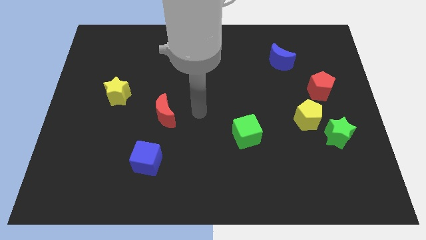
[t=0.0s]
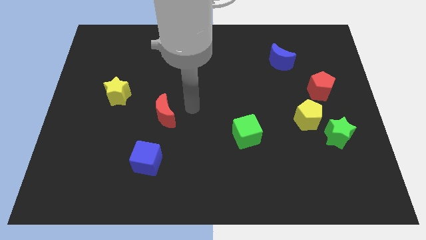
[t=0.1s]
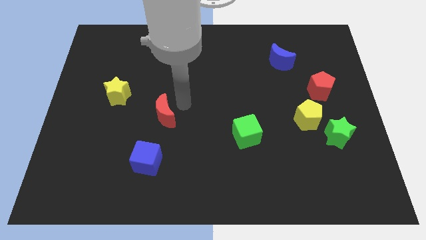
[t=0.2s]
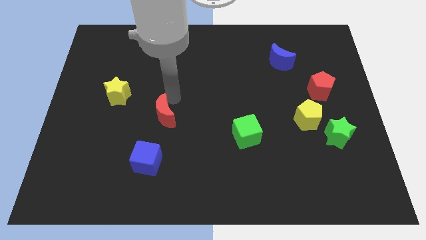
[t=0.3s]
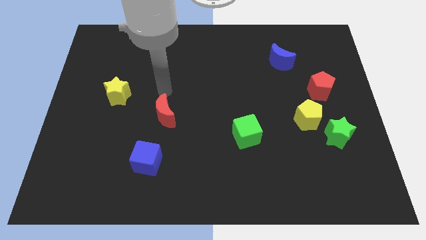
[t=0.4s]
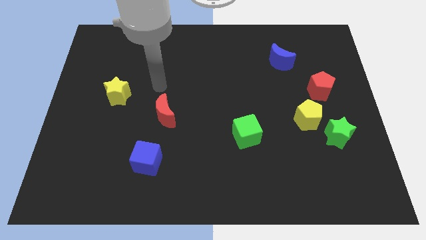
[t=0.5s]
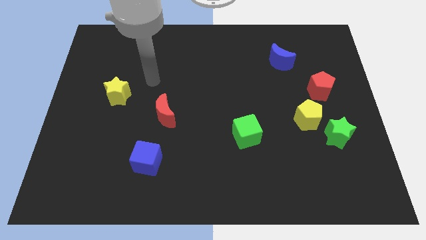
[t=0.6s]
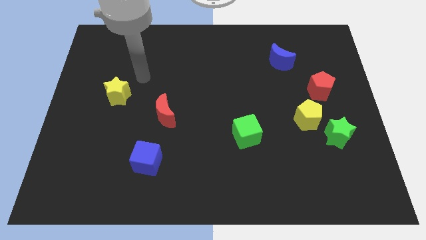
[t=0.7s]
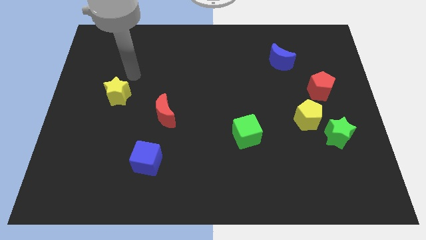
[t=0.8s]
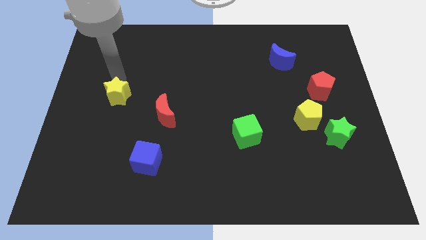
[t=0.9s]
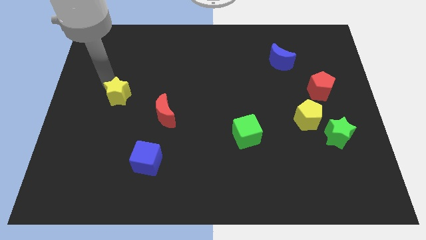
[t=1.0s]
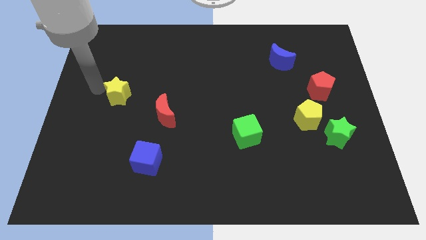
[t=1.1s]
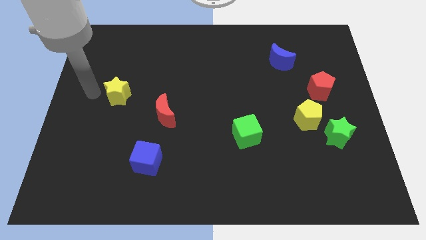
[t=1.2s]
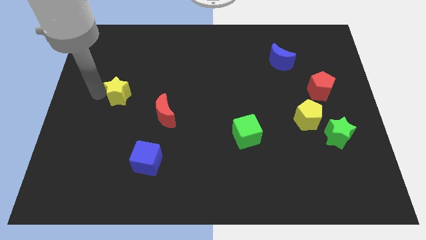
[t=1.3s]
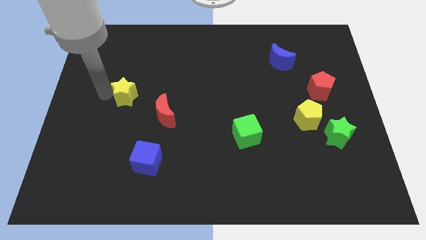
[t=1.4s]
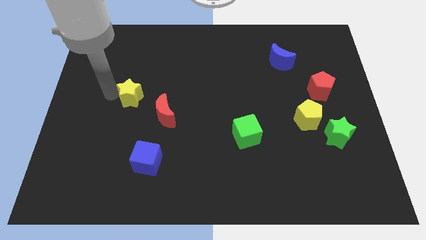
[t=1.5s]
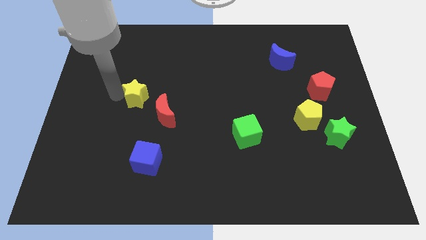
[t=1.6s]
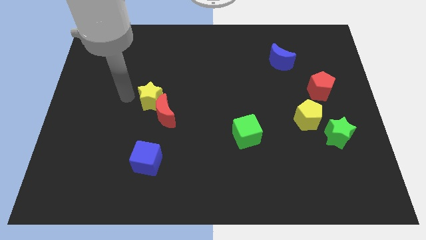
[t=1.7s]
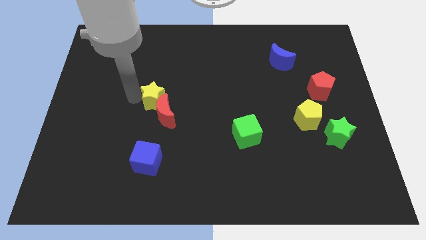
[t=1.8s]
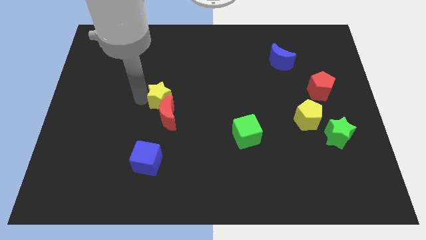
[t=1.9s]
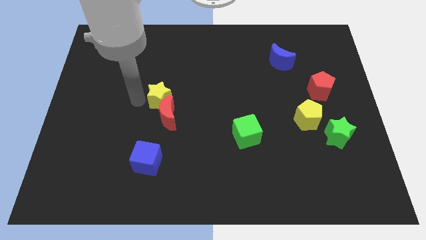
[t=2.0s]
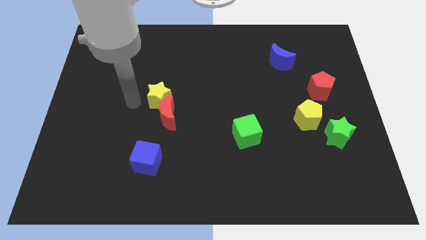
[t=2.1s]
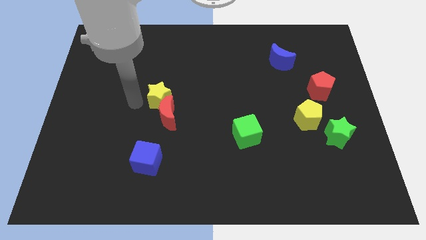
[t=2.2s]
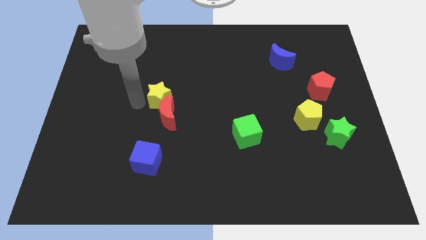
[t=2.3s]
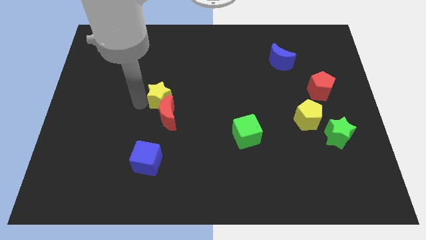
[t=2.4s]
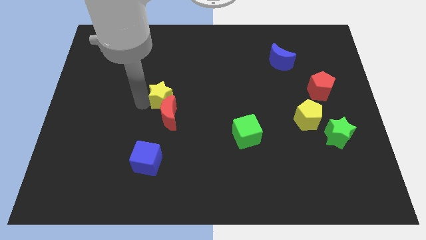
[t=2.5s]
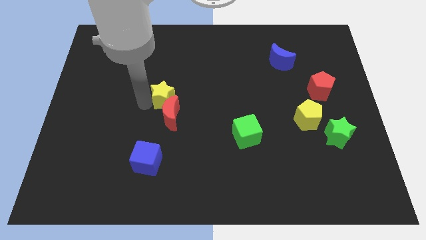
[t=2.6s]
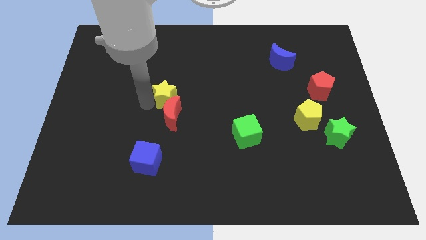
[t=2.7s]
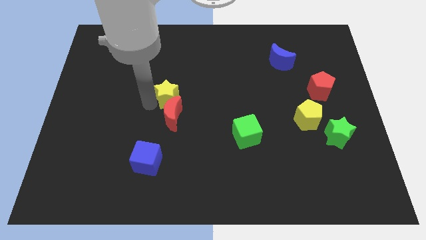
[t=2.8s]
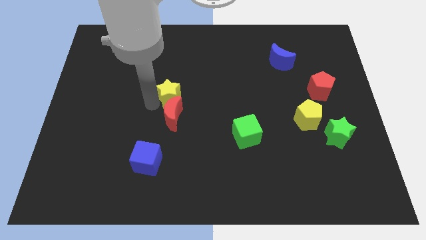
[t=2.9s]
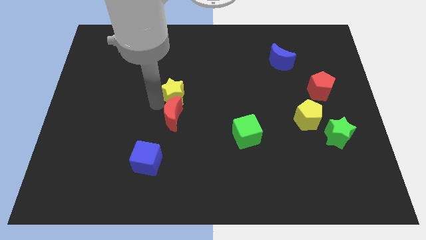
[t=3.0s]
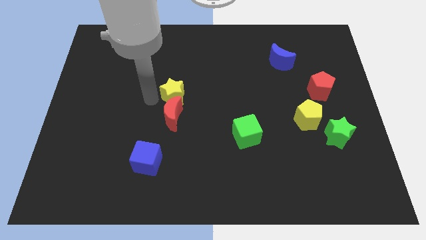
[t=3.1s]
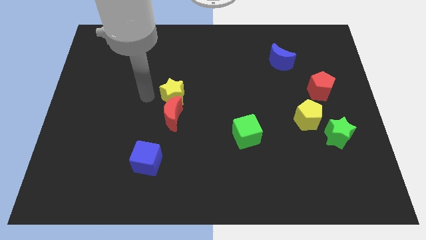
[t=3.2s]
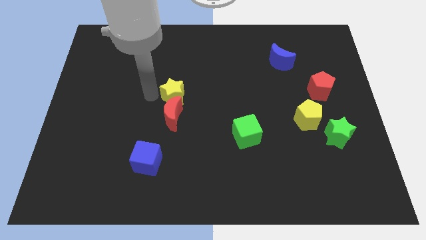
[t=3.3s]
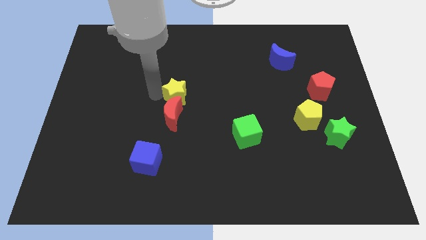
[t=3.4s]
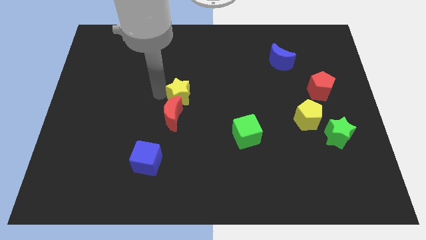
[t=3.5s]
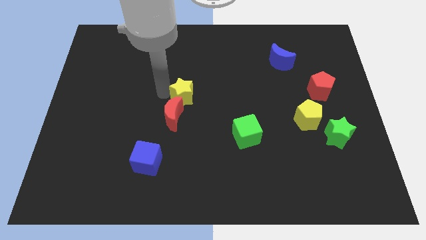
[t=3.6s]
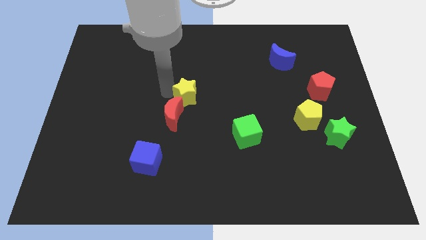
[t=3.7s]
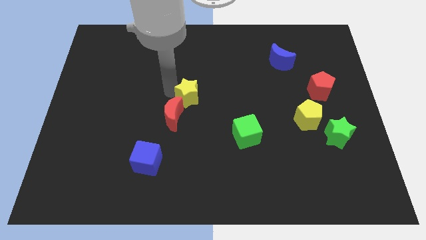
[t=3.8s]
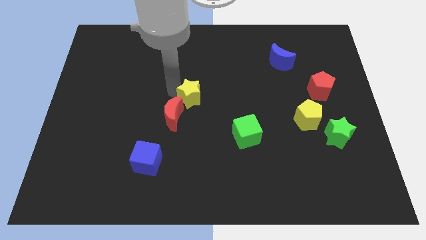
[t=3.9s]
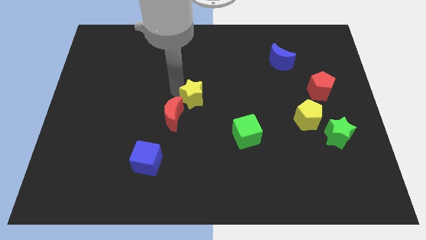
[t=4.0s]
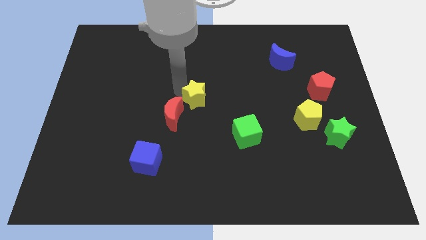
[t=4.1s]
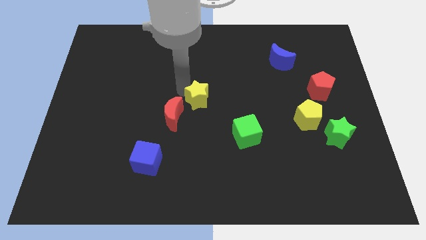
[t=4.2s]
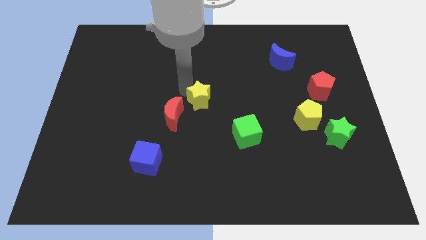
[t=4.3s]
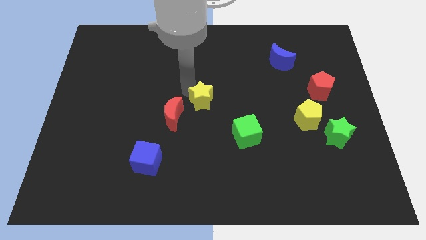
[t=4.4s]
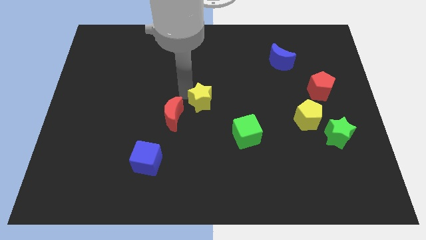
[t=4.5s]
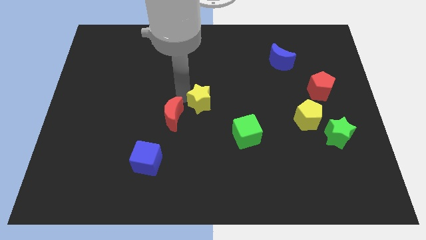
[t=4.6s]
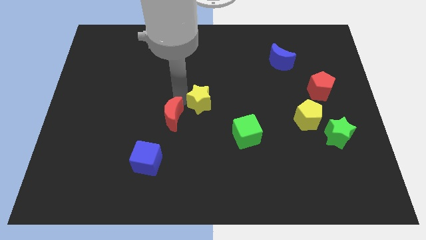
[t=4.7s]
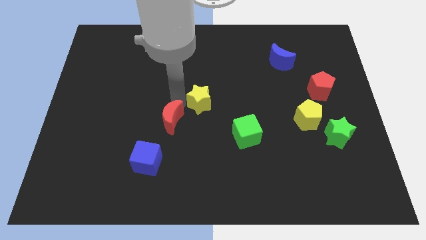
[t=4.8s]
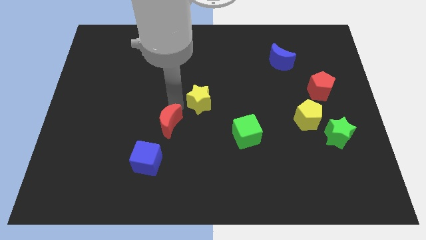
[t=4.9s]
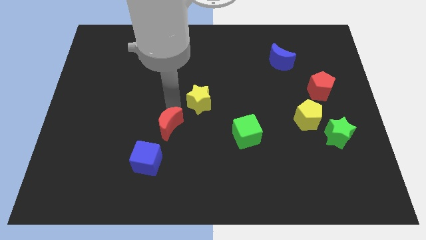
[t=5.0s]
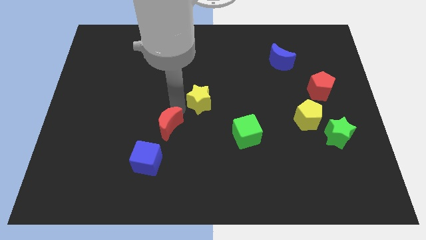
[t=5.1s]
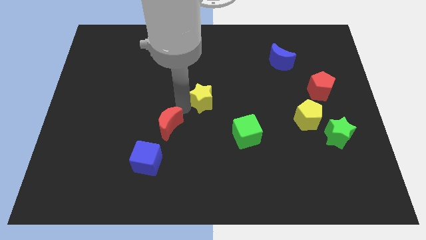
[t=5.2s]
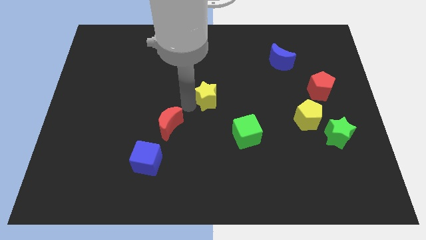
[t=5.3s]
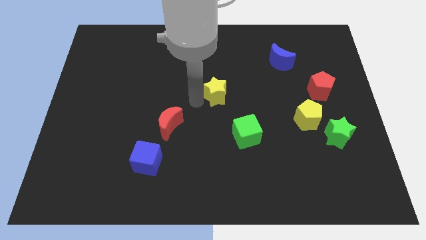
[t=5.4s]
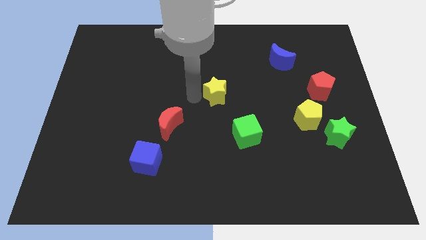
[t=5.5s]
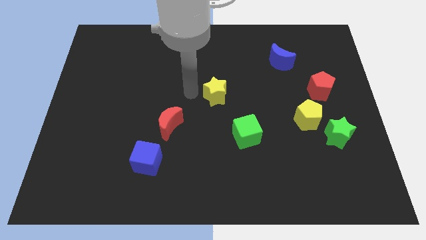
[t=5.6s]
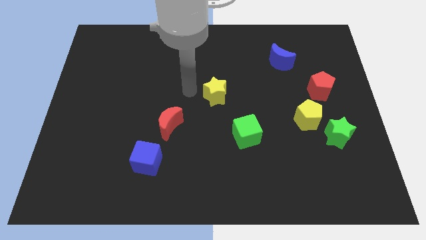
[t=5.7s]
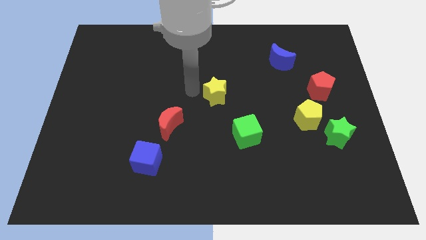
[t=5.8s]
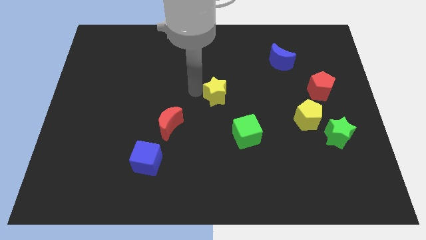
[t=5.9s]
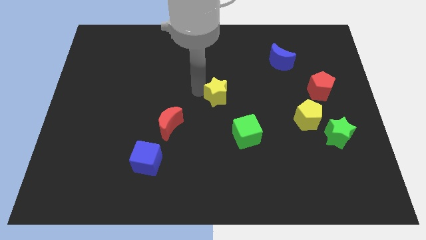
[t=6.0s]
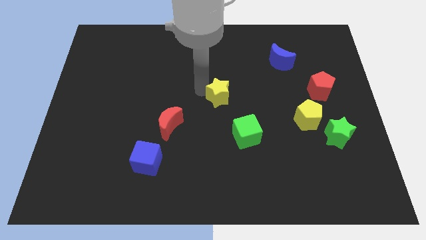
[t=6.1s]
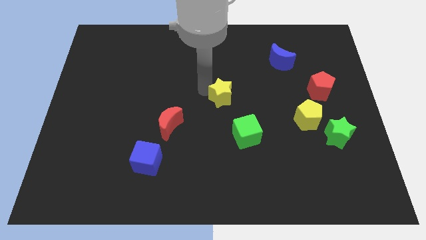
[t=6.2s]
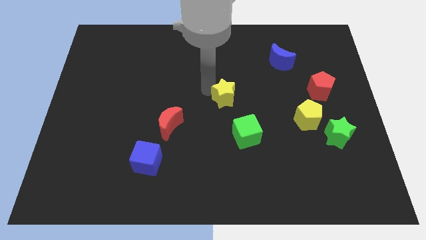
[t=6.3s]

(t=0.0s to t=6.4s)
push the yellow star to the top side of the green cube

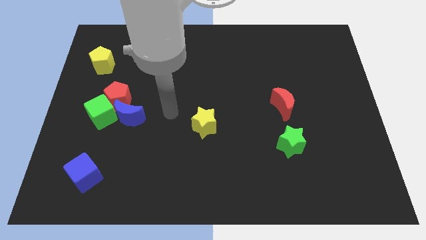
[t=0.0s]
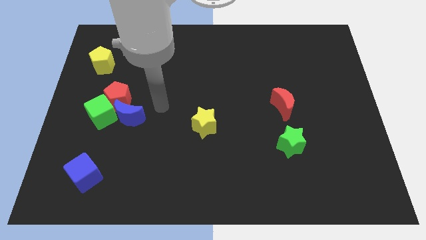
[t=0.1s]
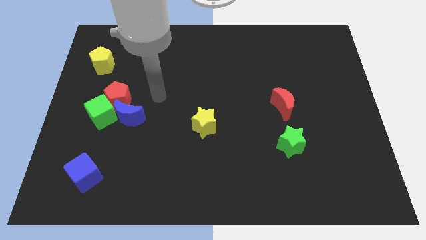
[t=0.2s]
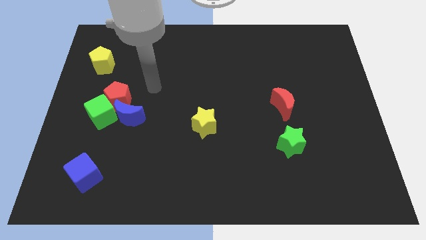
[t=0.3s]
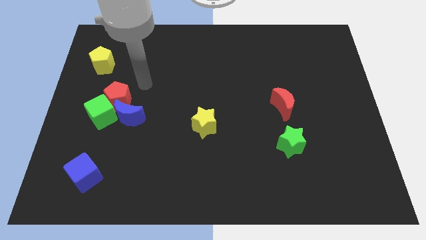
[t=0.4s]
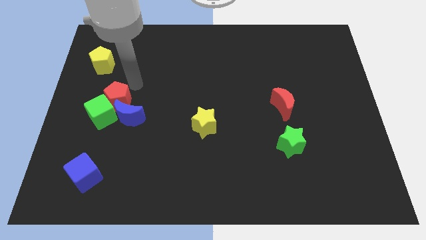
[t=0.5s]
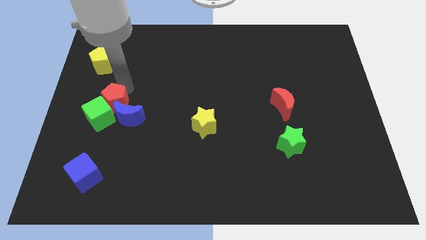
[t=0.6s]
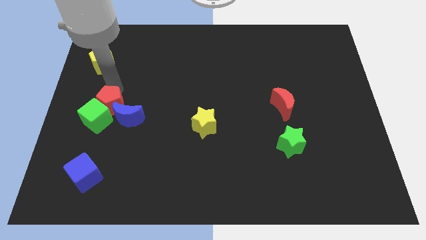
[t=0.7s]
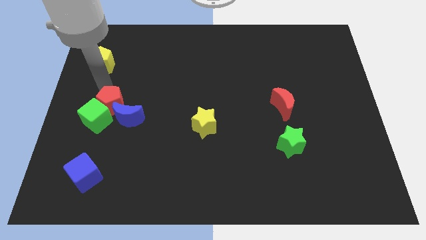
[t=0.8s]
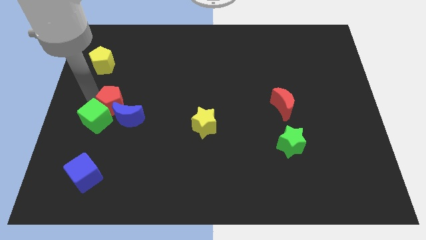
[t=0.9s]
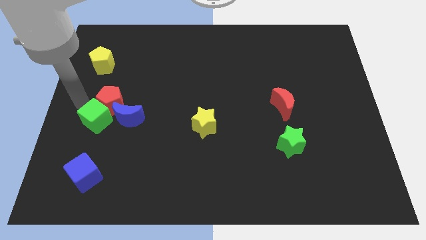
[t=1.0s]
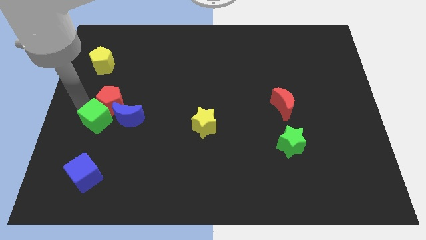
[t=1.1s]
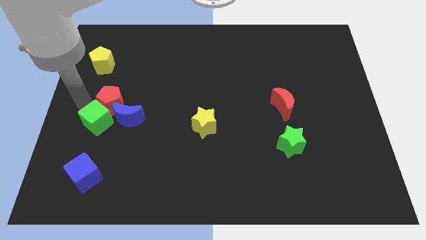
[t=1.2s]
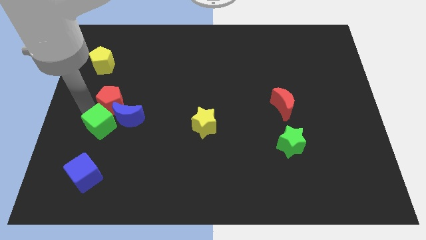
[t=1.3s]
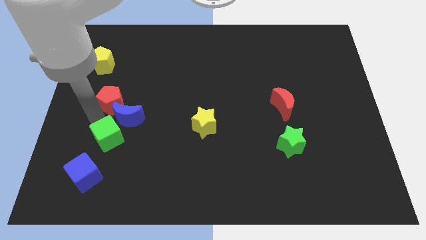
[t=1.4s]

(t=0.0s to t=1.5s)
push the green cube below the blue moon
